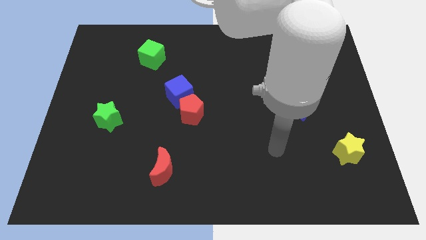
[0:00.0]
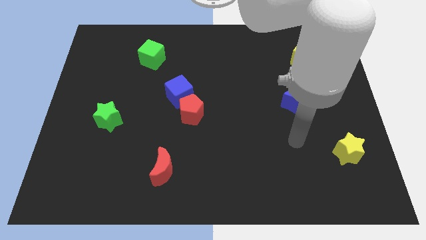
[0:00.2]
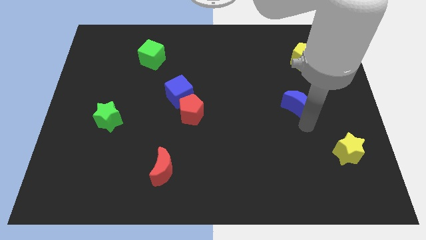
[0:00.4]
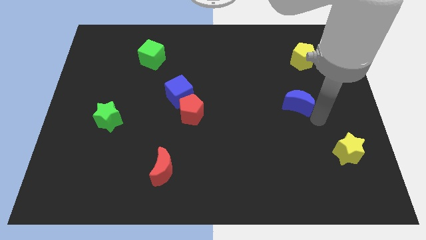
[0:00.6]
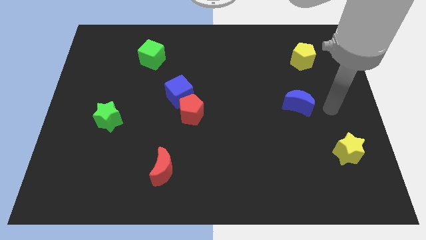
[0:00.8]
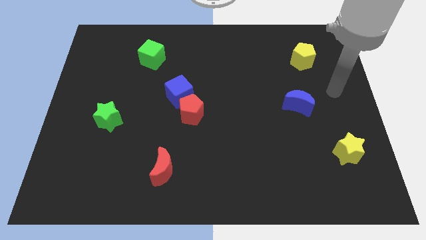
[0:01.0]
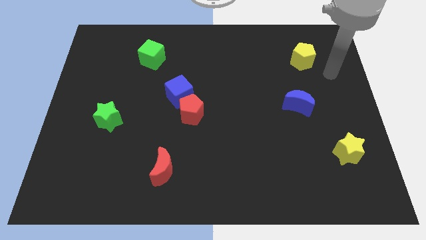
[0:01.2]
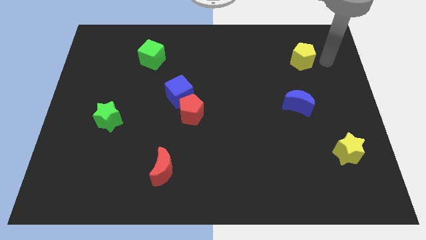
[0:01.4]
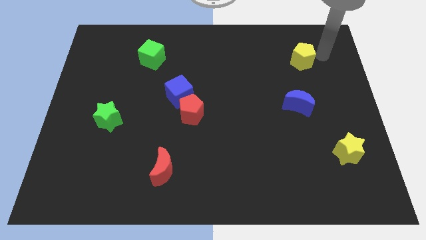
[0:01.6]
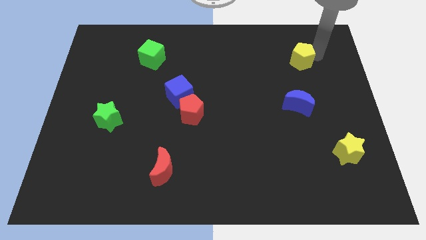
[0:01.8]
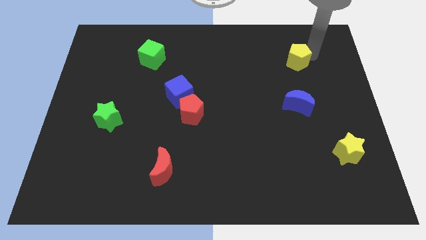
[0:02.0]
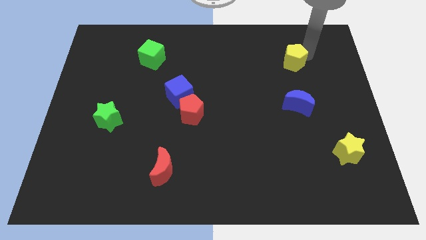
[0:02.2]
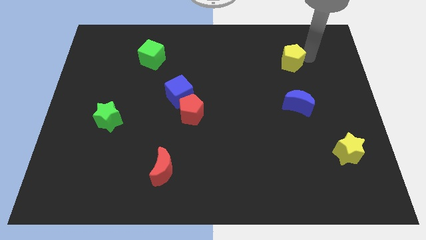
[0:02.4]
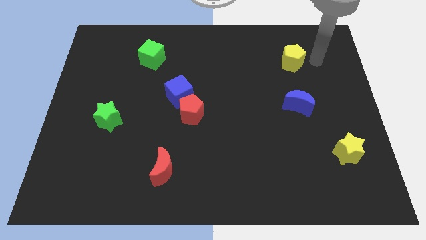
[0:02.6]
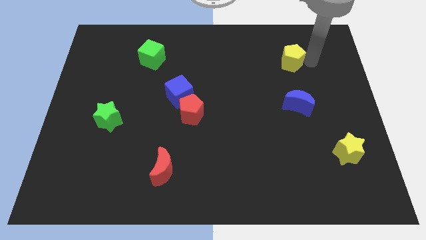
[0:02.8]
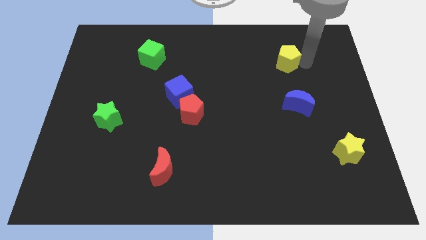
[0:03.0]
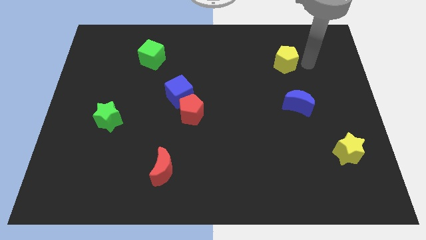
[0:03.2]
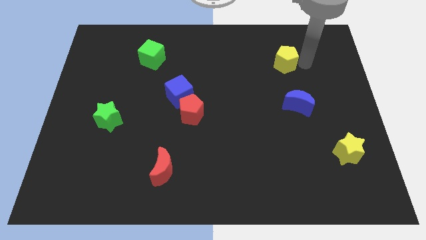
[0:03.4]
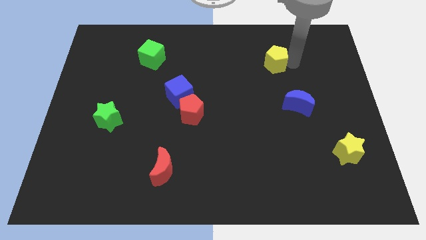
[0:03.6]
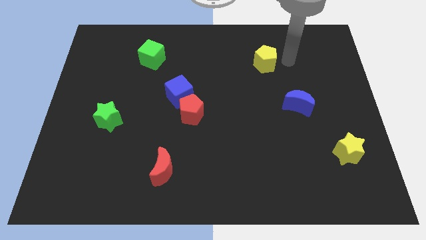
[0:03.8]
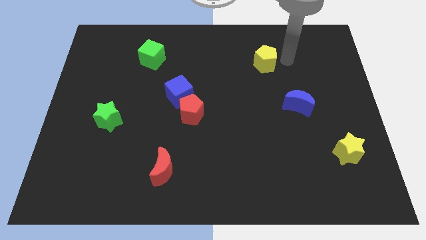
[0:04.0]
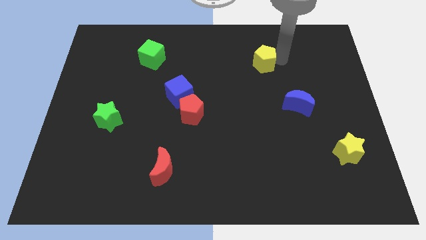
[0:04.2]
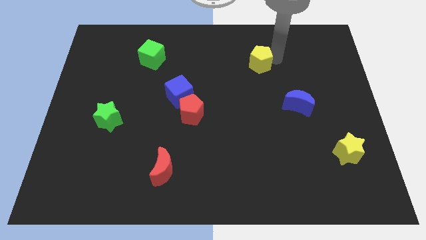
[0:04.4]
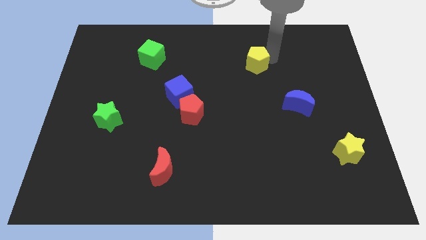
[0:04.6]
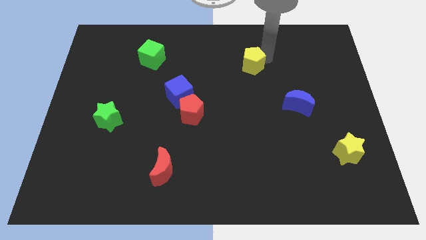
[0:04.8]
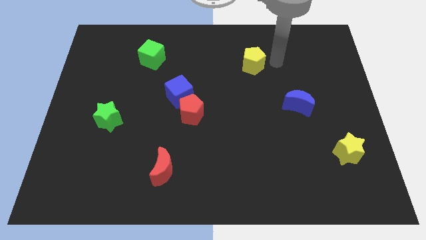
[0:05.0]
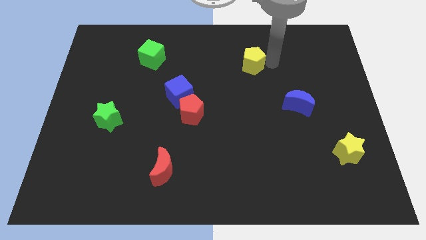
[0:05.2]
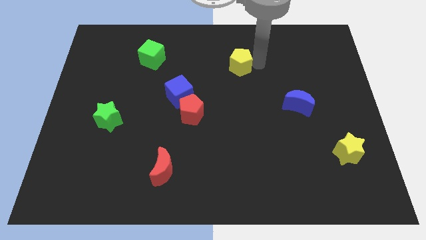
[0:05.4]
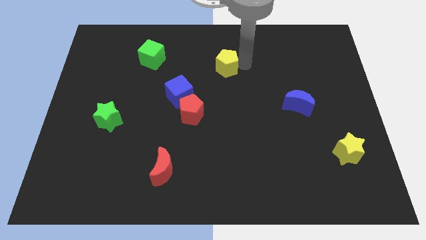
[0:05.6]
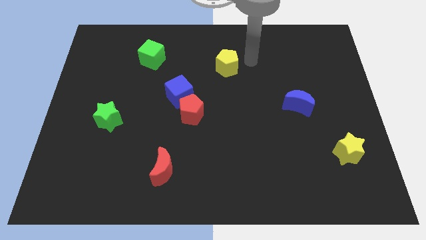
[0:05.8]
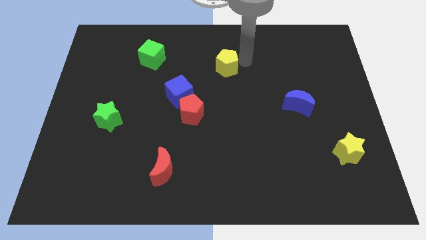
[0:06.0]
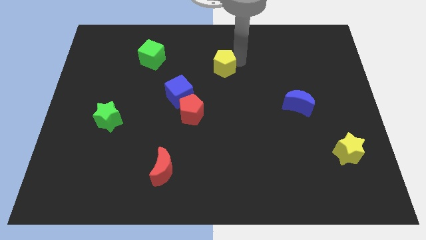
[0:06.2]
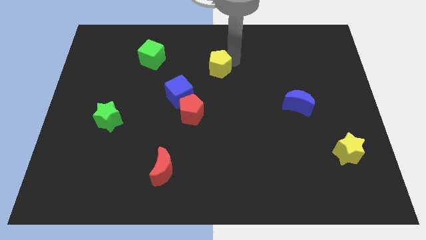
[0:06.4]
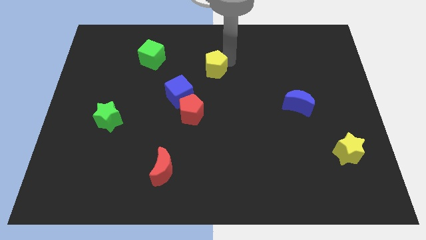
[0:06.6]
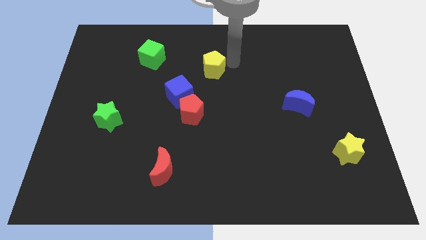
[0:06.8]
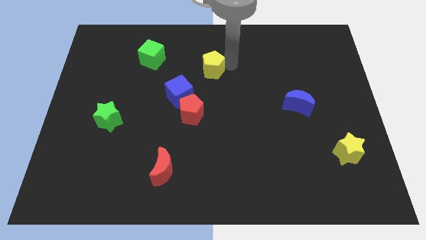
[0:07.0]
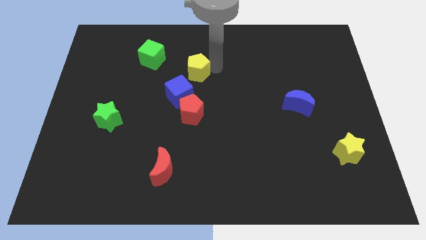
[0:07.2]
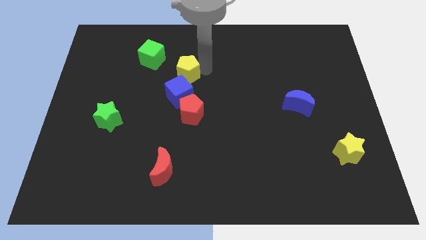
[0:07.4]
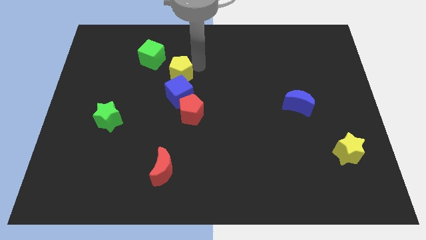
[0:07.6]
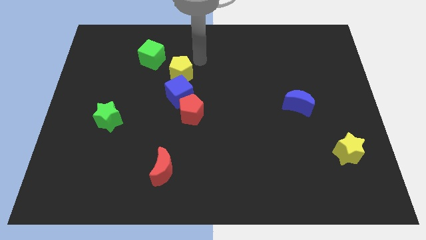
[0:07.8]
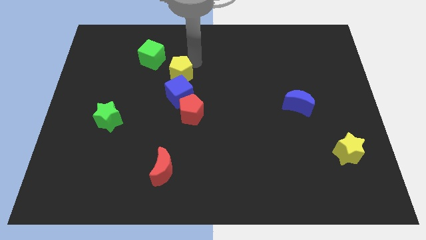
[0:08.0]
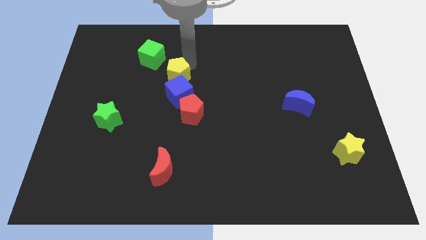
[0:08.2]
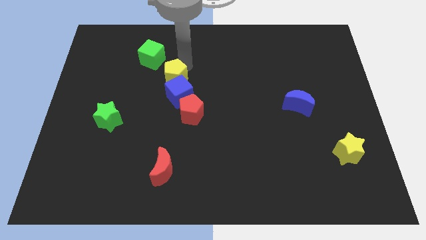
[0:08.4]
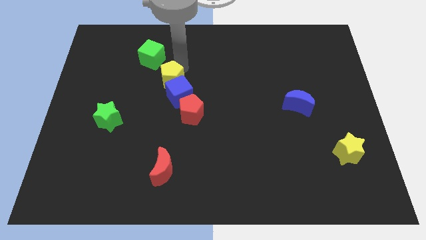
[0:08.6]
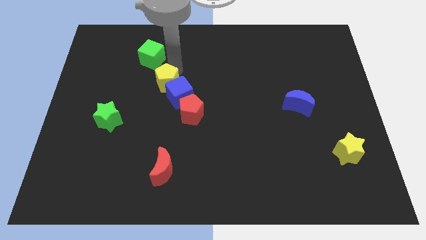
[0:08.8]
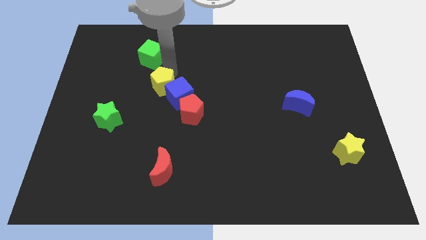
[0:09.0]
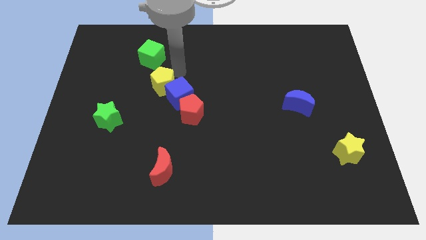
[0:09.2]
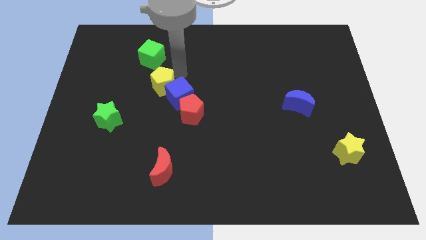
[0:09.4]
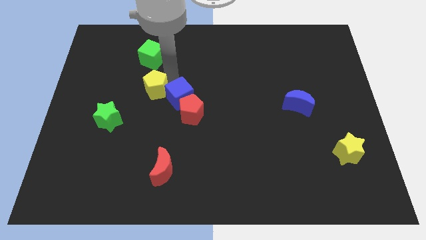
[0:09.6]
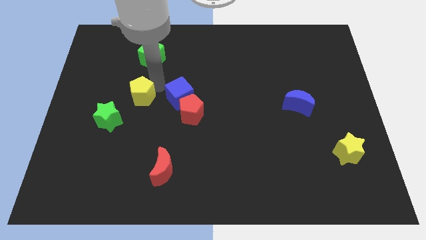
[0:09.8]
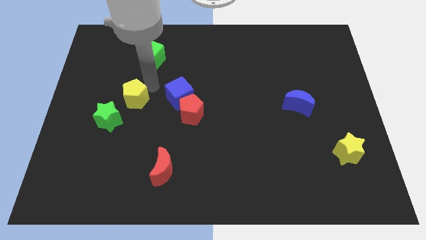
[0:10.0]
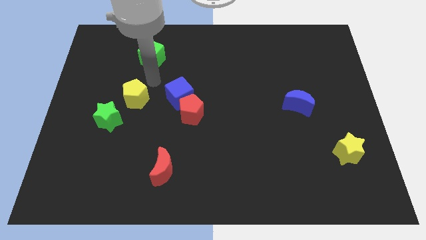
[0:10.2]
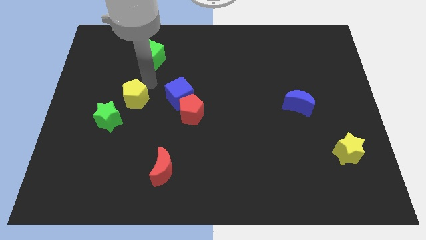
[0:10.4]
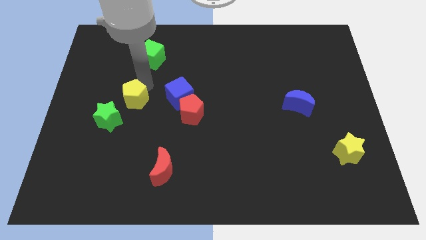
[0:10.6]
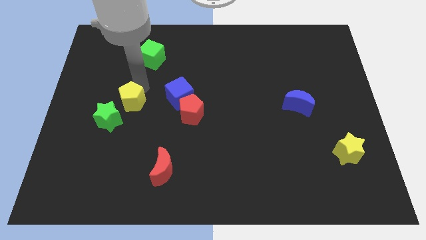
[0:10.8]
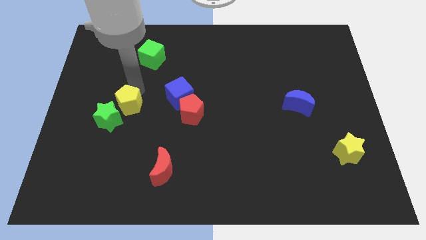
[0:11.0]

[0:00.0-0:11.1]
push the yellow pentagon to the green star

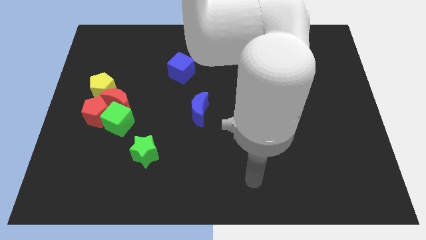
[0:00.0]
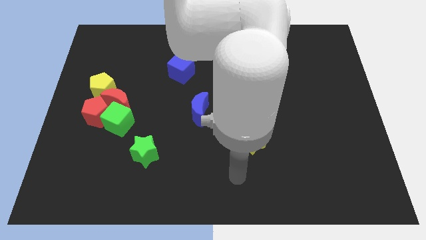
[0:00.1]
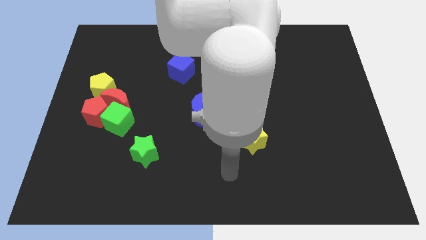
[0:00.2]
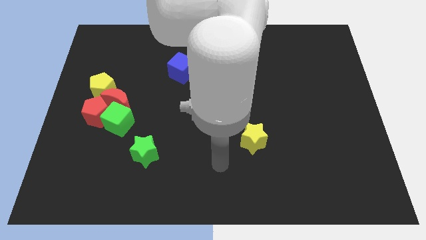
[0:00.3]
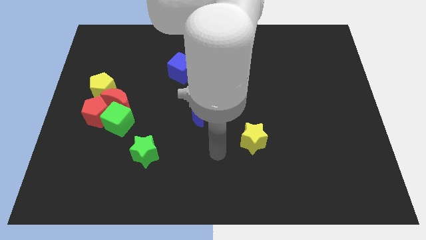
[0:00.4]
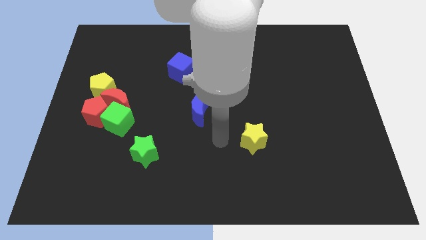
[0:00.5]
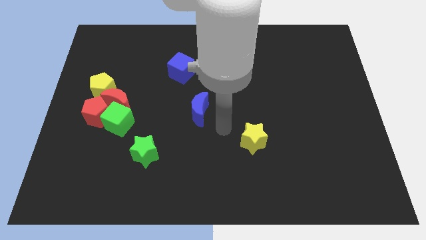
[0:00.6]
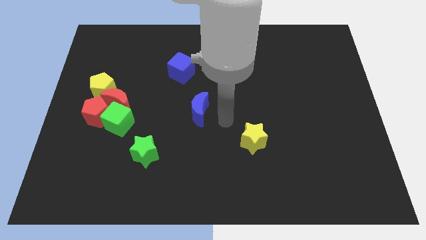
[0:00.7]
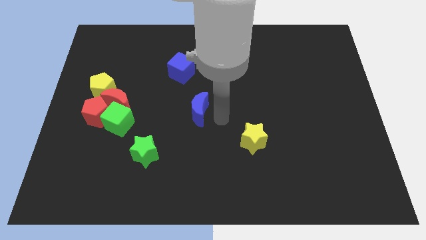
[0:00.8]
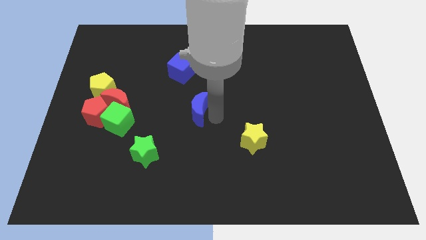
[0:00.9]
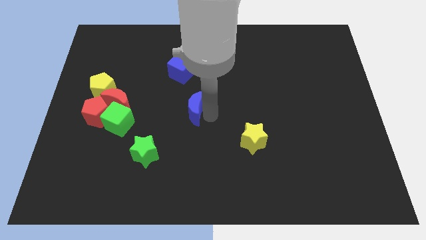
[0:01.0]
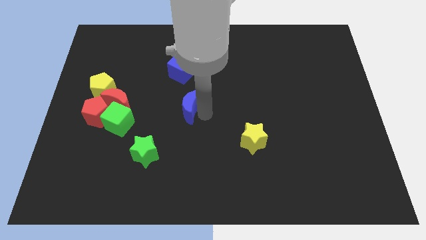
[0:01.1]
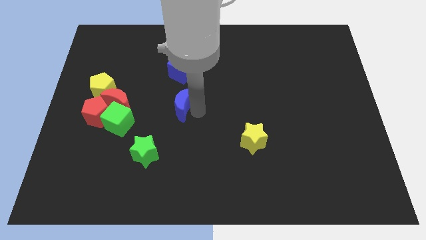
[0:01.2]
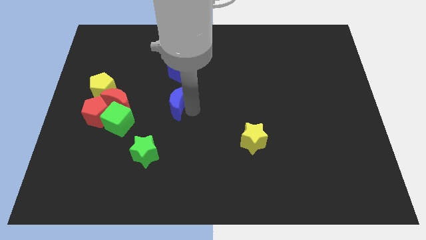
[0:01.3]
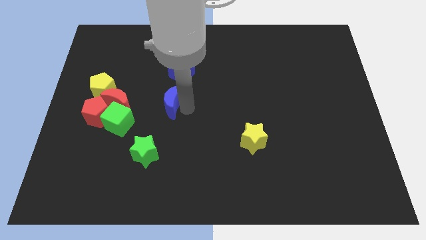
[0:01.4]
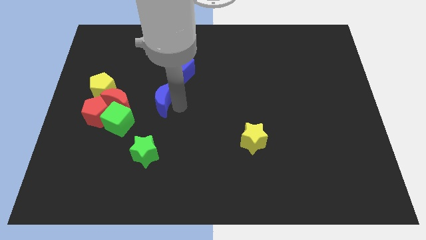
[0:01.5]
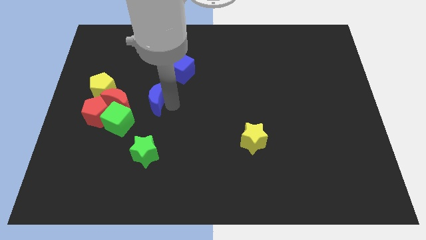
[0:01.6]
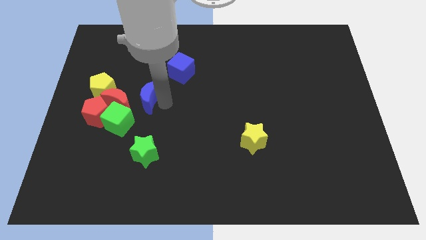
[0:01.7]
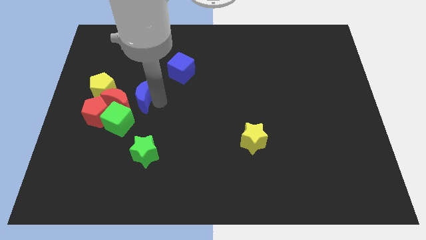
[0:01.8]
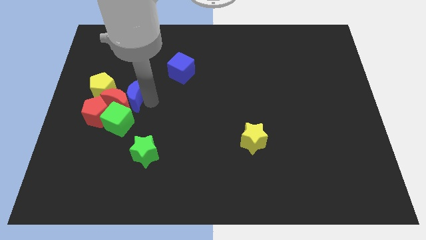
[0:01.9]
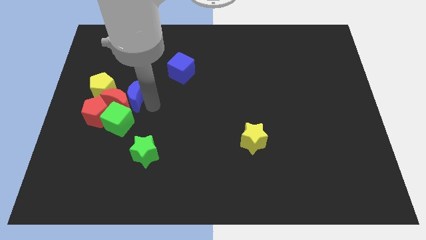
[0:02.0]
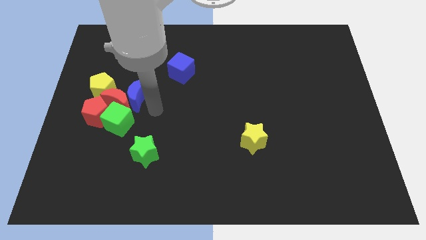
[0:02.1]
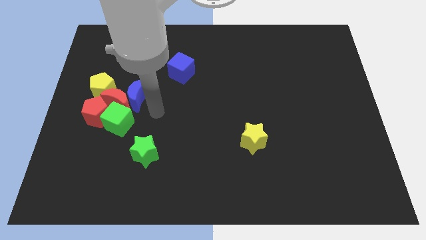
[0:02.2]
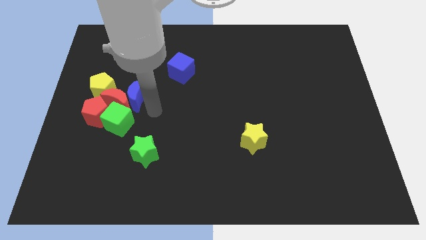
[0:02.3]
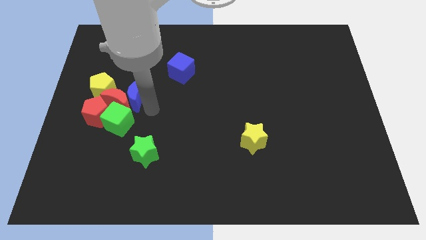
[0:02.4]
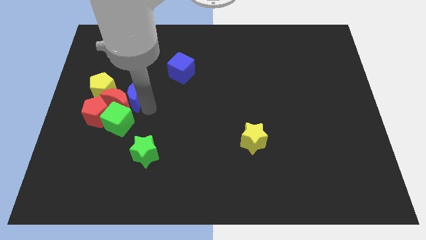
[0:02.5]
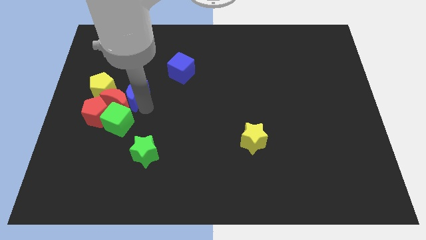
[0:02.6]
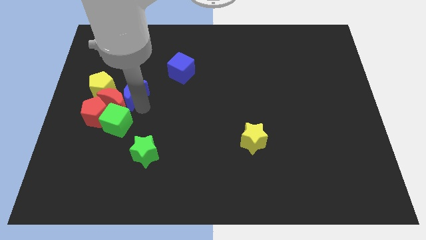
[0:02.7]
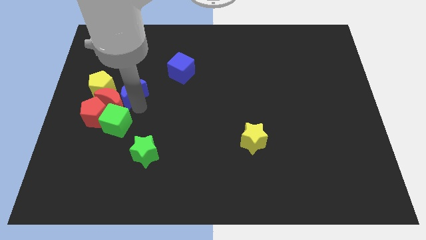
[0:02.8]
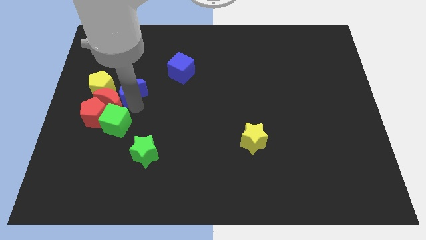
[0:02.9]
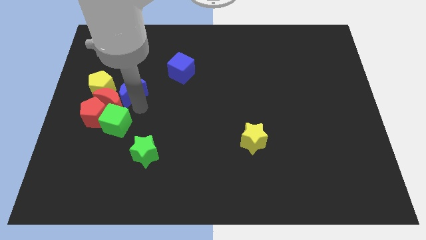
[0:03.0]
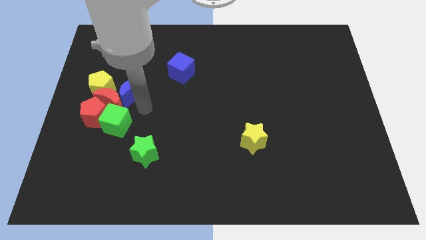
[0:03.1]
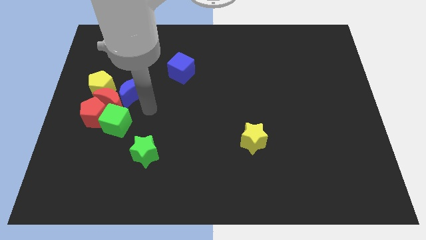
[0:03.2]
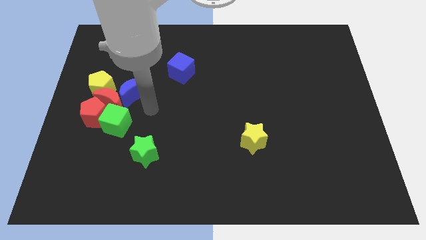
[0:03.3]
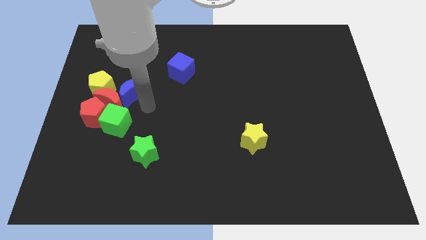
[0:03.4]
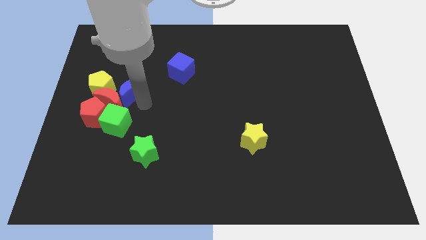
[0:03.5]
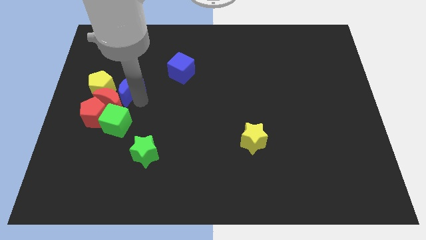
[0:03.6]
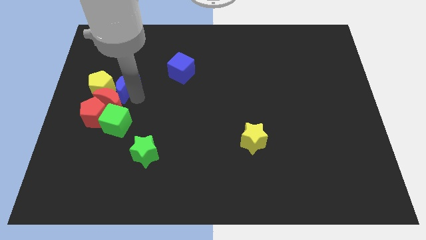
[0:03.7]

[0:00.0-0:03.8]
push the blue moon towards the yellow pentagon
